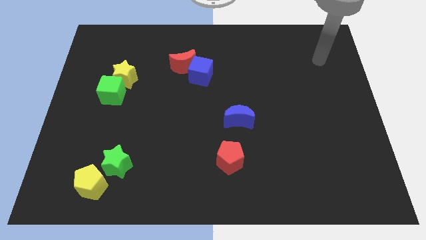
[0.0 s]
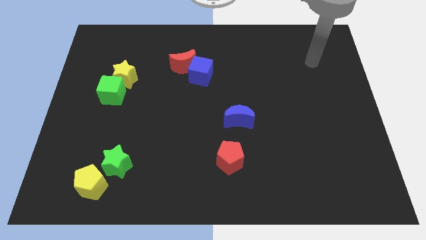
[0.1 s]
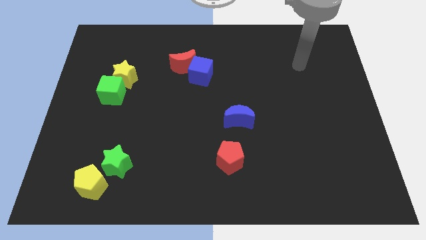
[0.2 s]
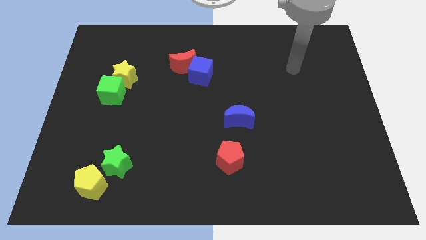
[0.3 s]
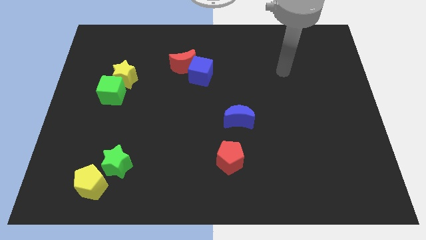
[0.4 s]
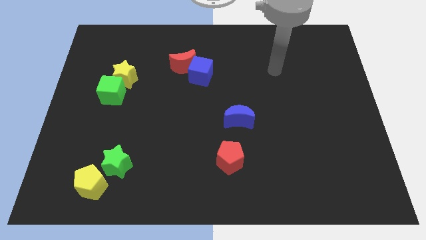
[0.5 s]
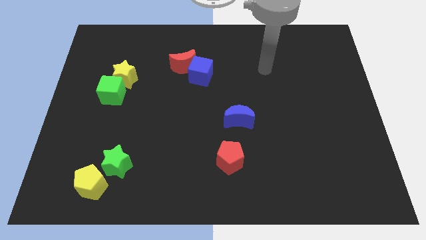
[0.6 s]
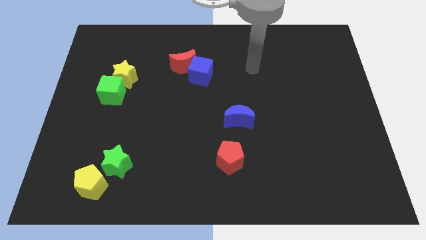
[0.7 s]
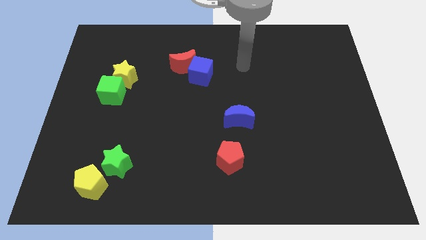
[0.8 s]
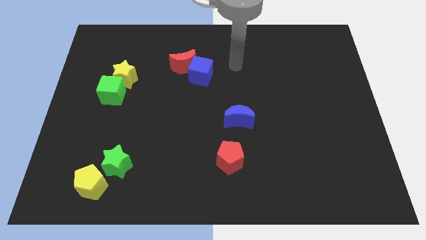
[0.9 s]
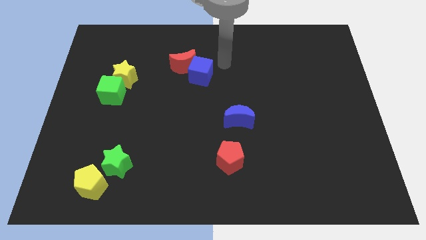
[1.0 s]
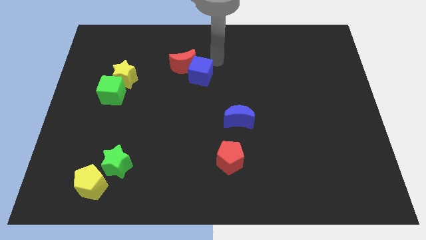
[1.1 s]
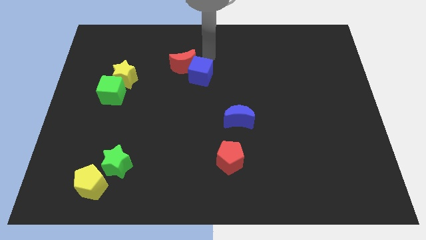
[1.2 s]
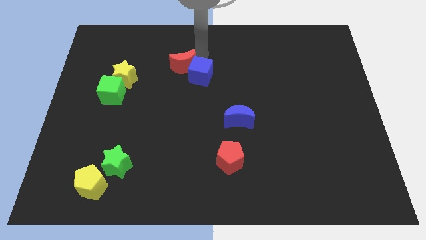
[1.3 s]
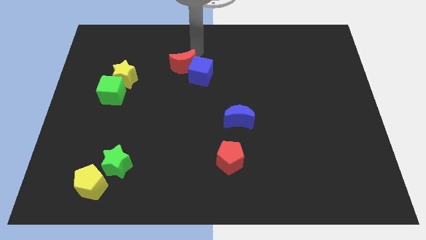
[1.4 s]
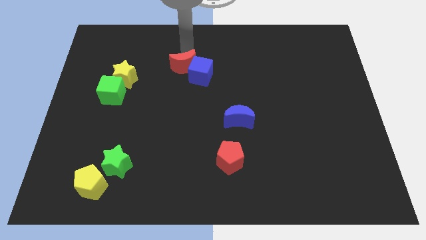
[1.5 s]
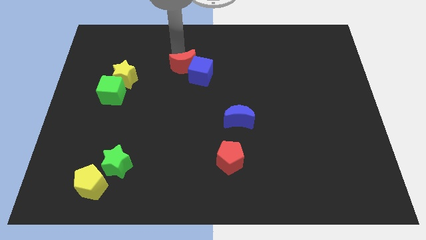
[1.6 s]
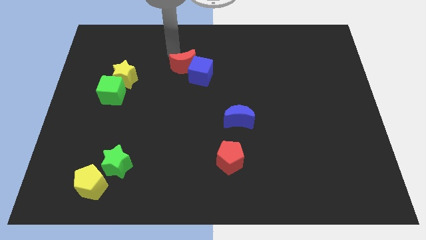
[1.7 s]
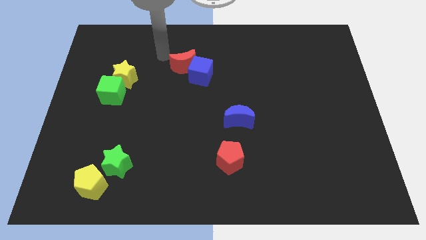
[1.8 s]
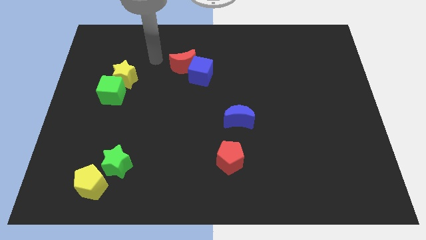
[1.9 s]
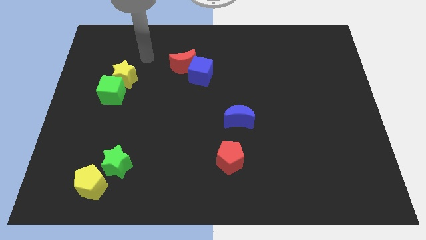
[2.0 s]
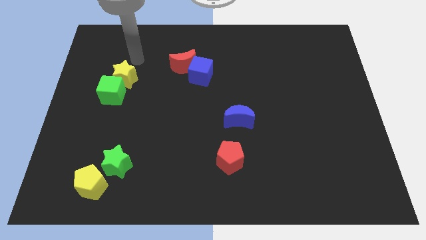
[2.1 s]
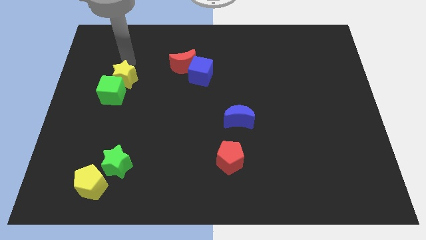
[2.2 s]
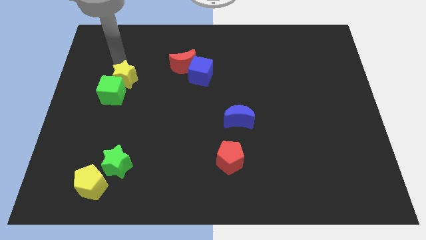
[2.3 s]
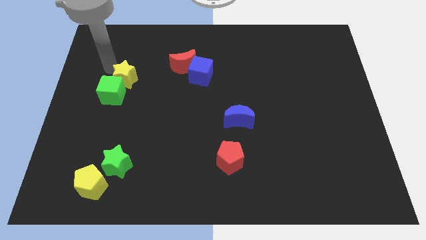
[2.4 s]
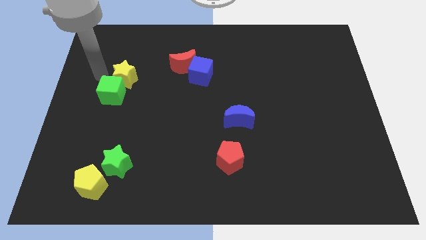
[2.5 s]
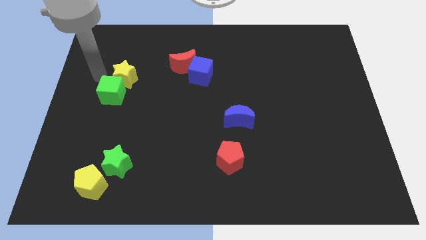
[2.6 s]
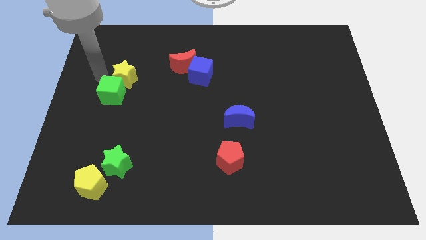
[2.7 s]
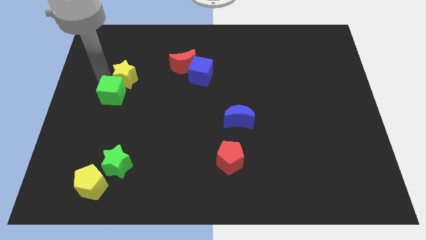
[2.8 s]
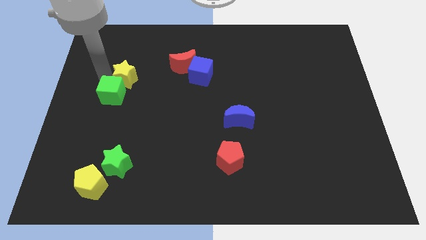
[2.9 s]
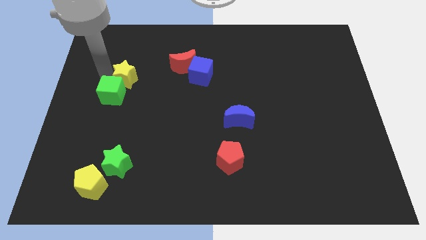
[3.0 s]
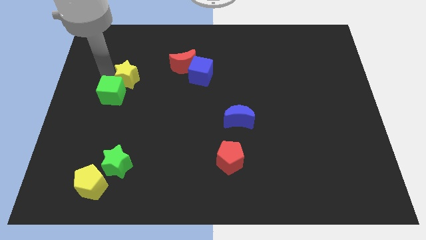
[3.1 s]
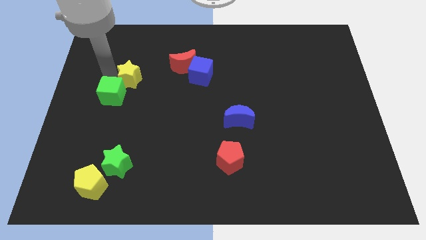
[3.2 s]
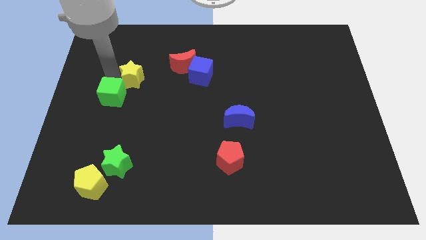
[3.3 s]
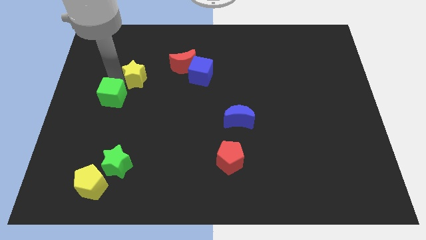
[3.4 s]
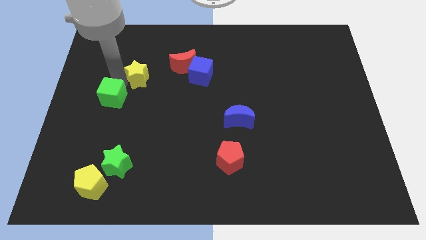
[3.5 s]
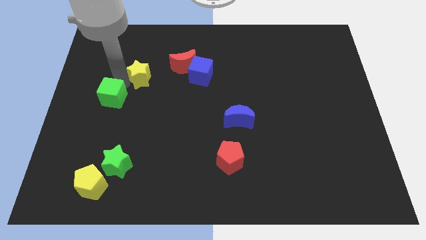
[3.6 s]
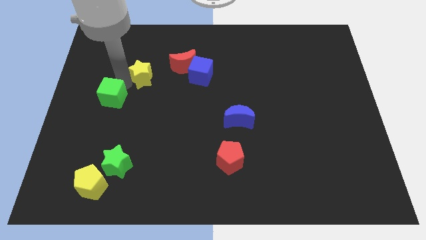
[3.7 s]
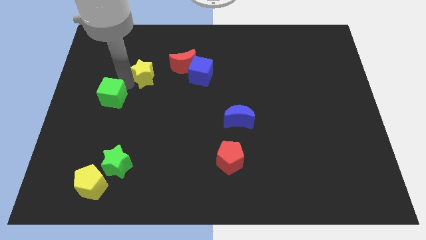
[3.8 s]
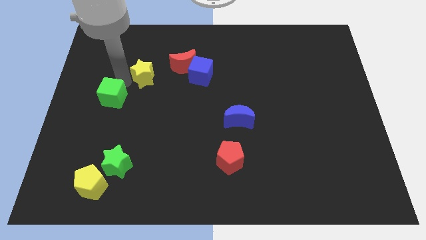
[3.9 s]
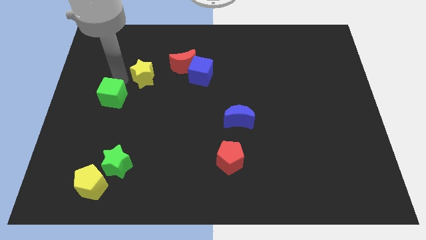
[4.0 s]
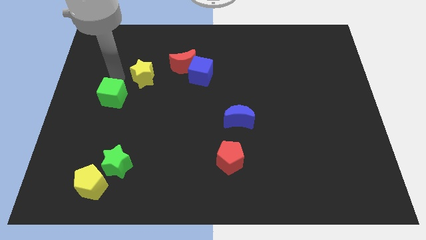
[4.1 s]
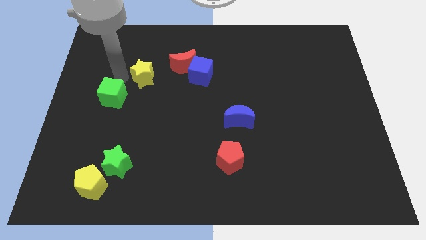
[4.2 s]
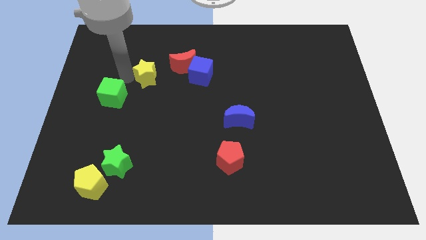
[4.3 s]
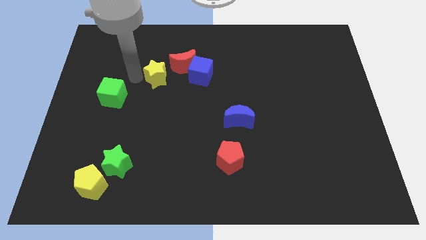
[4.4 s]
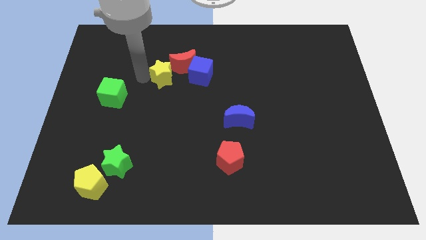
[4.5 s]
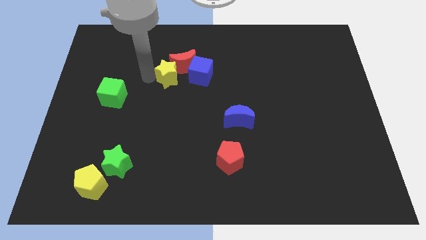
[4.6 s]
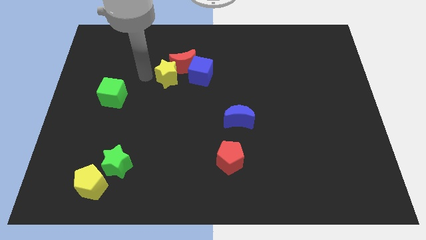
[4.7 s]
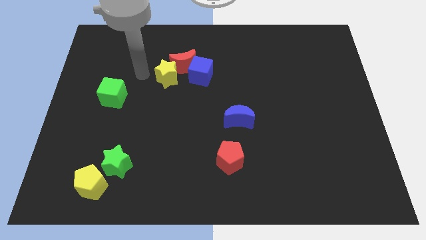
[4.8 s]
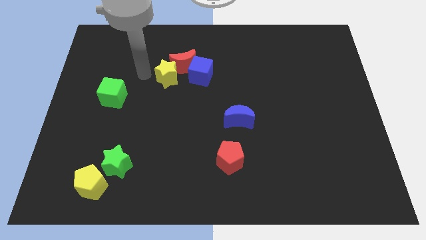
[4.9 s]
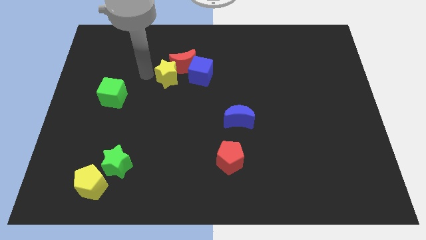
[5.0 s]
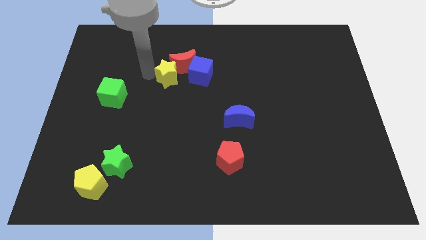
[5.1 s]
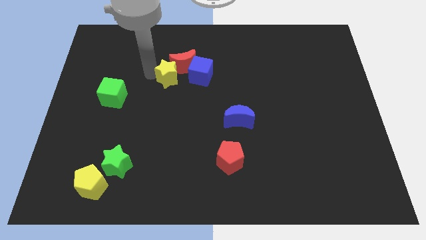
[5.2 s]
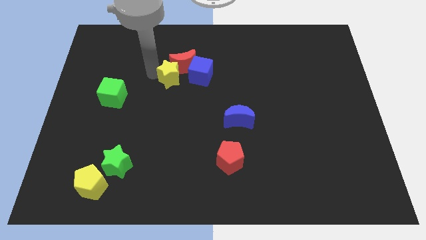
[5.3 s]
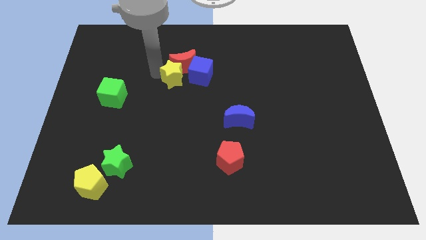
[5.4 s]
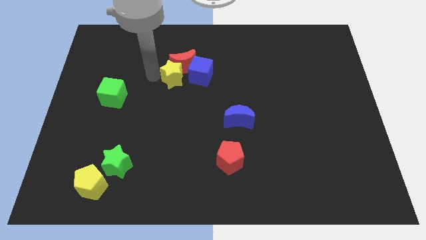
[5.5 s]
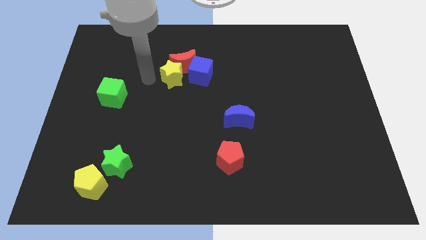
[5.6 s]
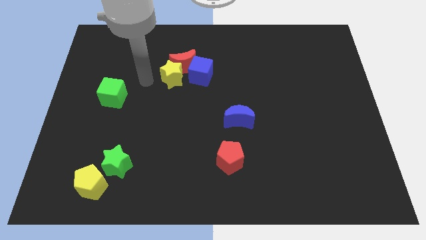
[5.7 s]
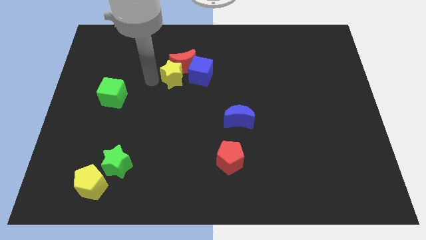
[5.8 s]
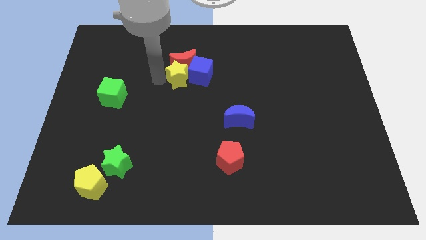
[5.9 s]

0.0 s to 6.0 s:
slide the yellow star next to the blue cube

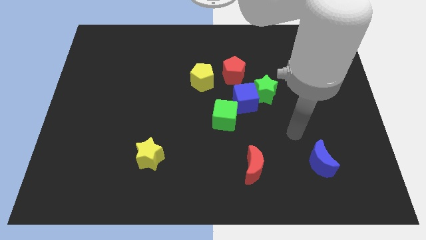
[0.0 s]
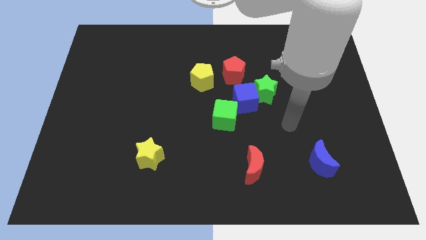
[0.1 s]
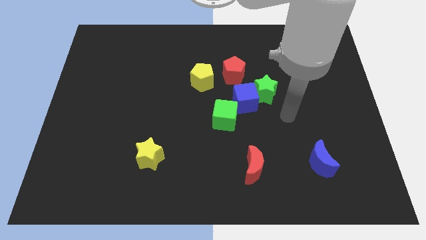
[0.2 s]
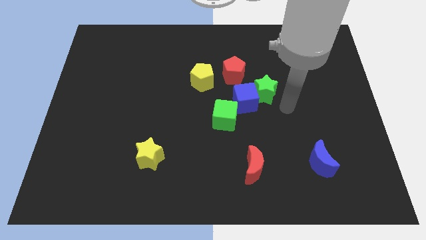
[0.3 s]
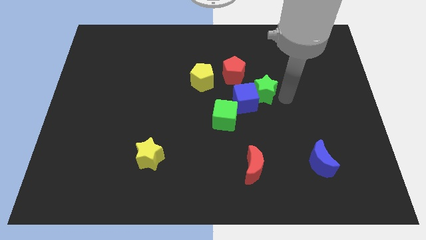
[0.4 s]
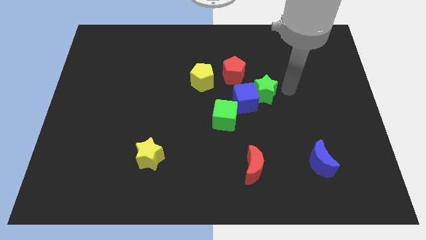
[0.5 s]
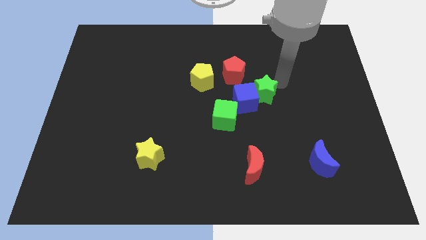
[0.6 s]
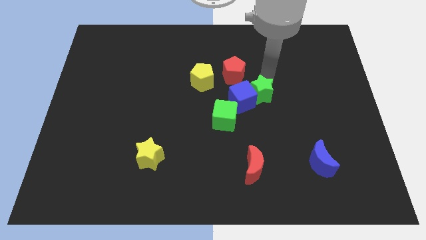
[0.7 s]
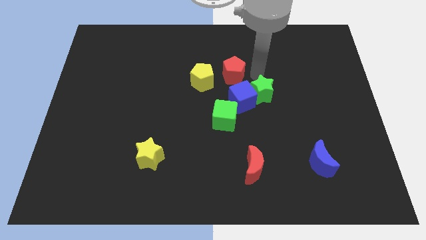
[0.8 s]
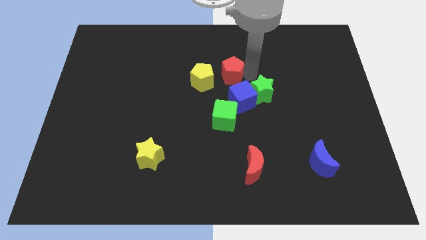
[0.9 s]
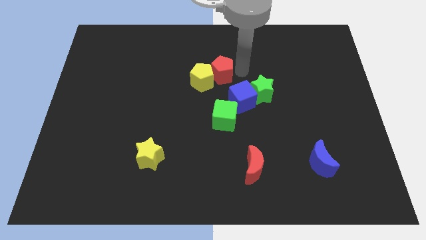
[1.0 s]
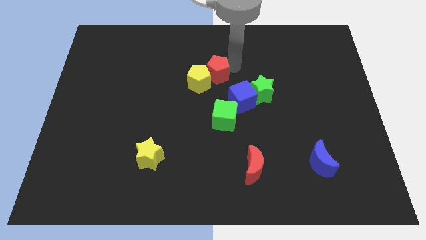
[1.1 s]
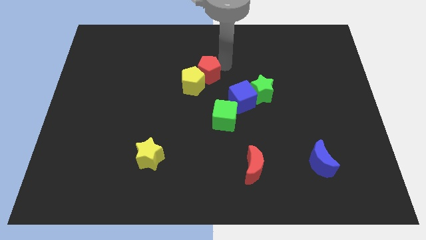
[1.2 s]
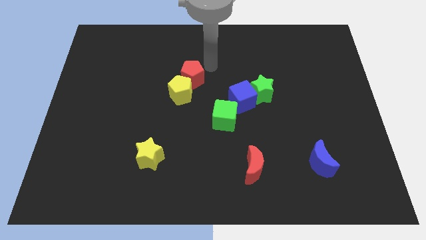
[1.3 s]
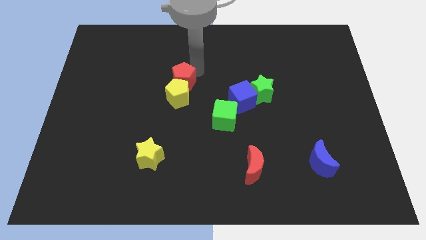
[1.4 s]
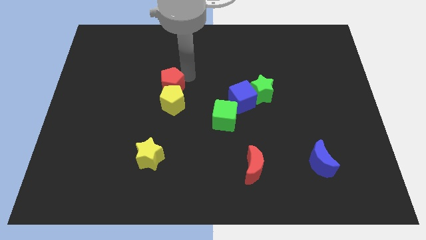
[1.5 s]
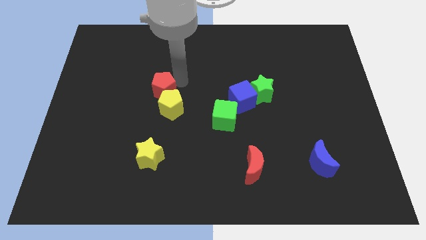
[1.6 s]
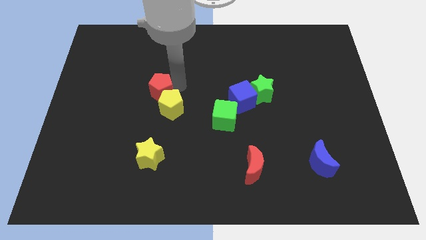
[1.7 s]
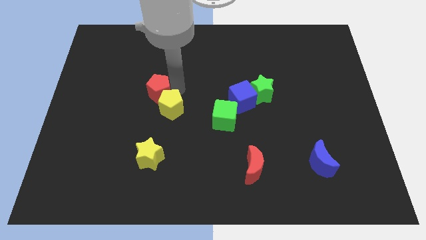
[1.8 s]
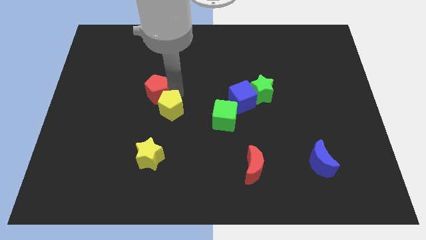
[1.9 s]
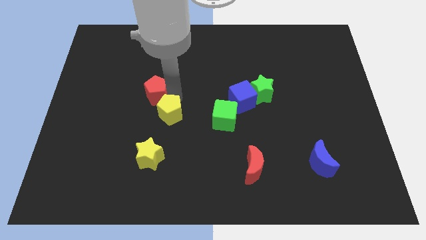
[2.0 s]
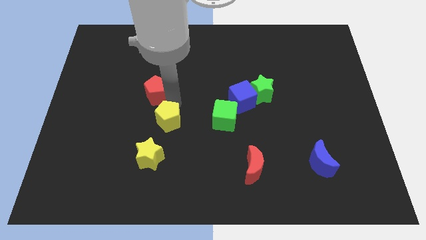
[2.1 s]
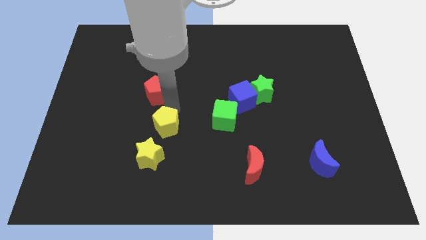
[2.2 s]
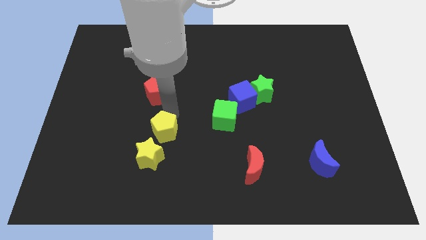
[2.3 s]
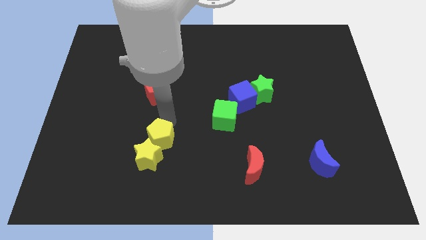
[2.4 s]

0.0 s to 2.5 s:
move the yellow pentagon towards the yellow star
